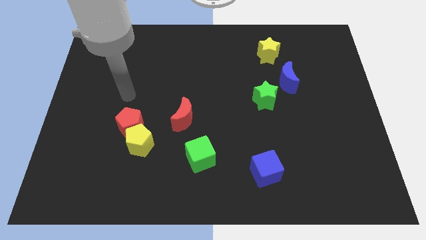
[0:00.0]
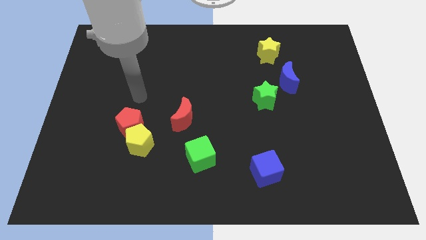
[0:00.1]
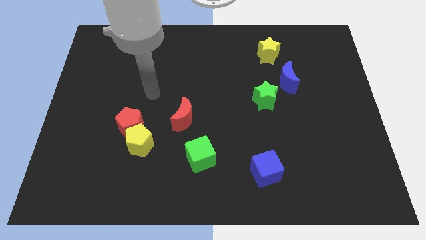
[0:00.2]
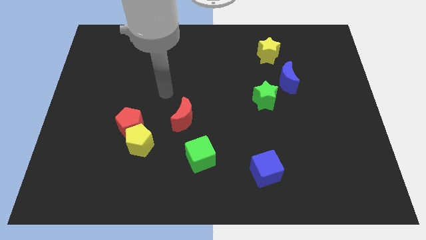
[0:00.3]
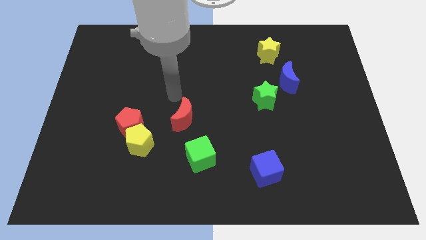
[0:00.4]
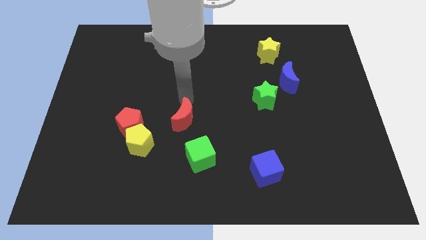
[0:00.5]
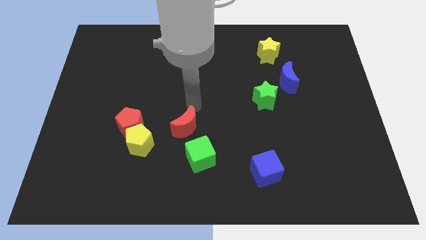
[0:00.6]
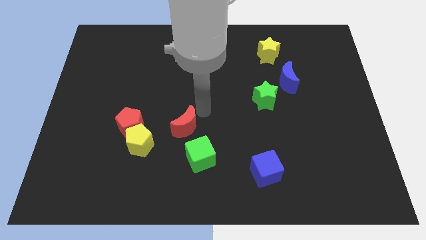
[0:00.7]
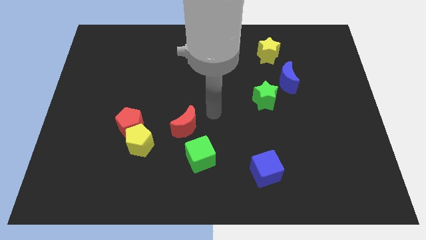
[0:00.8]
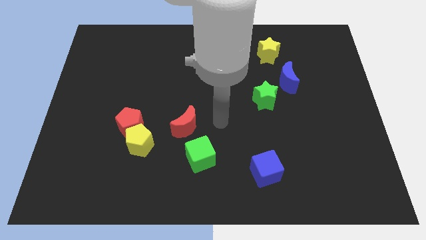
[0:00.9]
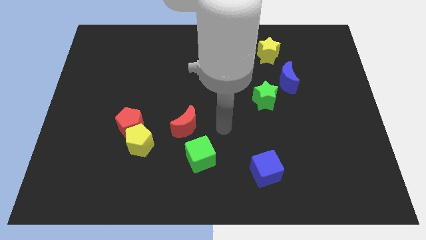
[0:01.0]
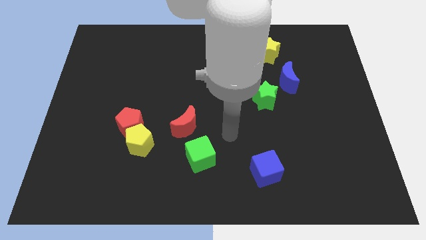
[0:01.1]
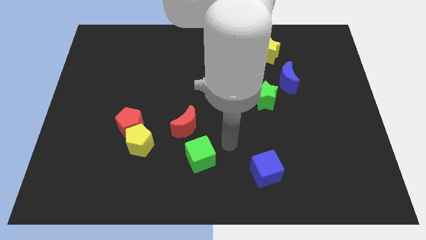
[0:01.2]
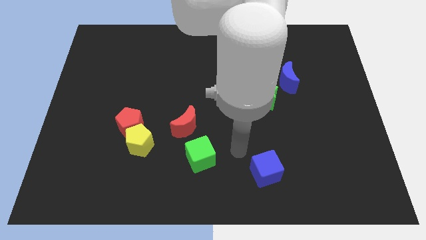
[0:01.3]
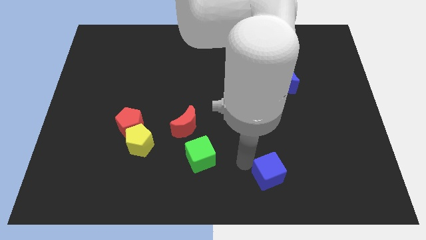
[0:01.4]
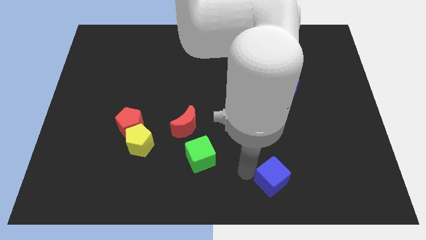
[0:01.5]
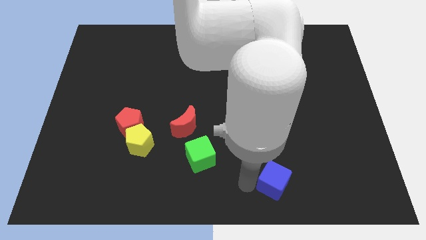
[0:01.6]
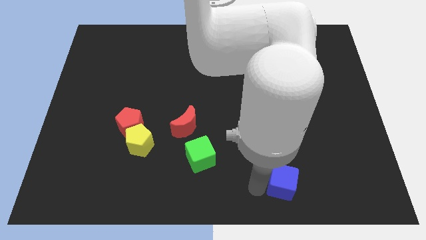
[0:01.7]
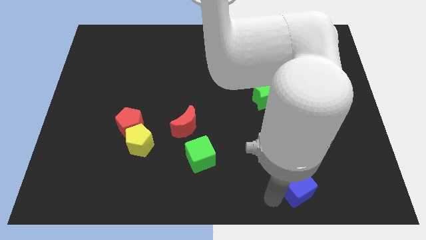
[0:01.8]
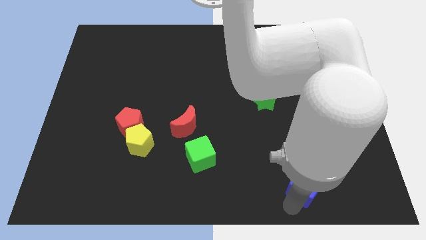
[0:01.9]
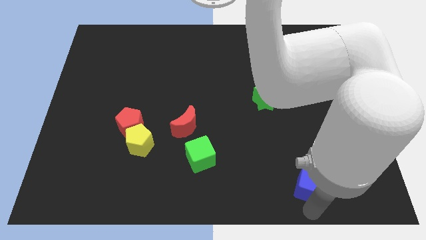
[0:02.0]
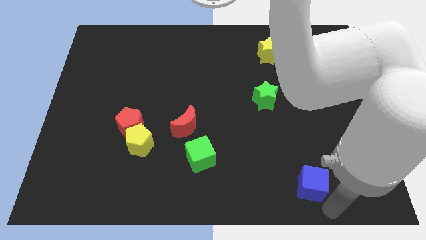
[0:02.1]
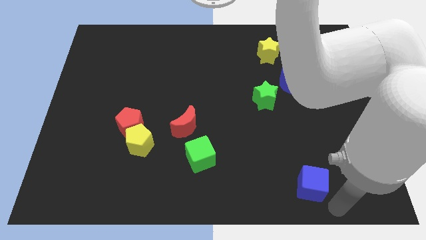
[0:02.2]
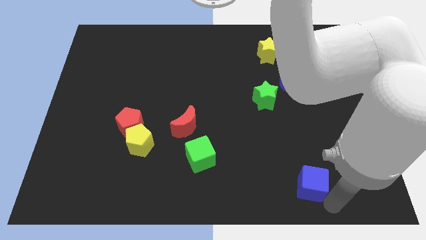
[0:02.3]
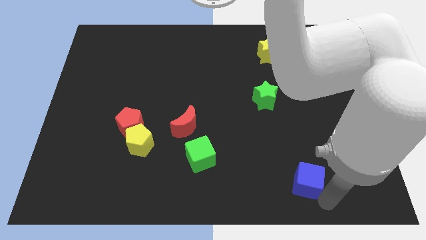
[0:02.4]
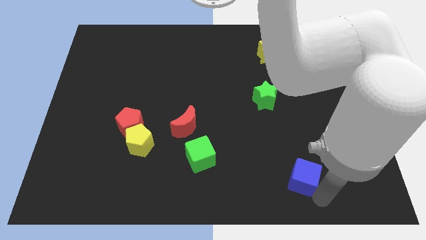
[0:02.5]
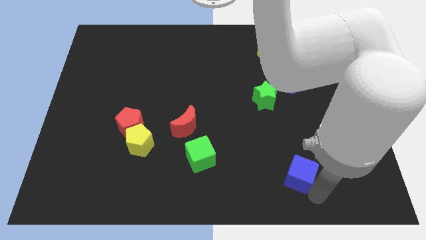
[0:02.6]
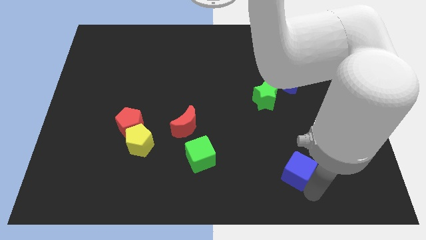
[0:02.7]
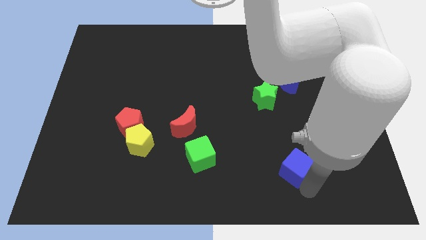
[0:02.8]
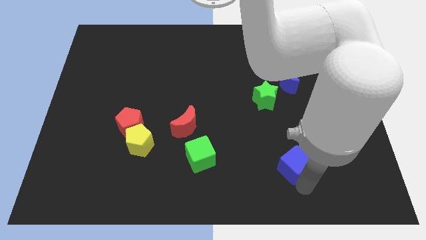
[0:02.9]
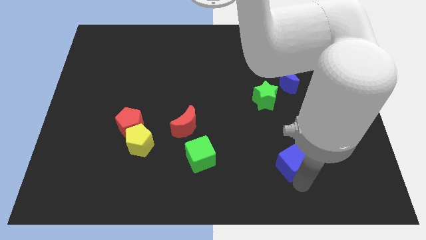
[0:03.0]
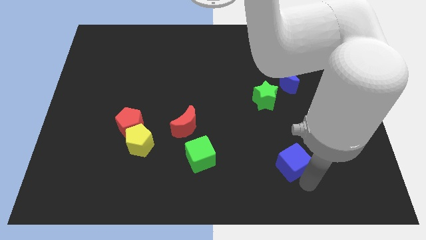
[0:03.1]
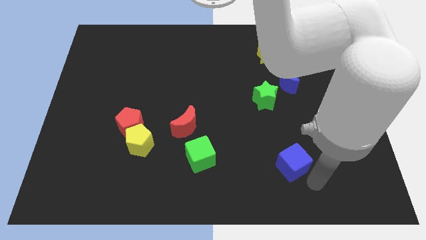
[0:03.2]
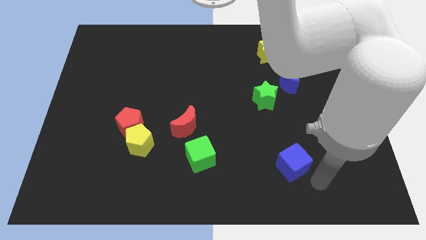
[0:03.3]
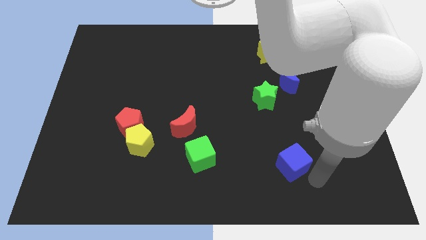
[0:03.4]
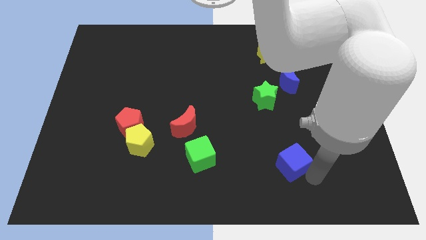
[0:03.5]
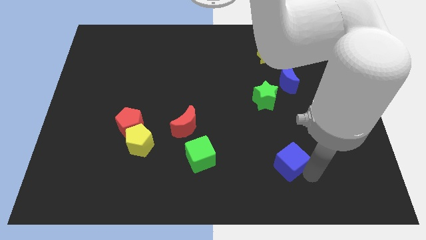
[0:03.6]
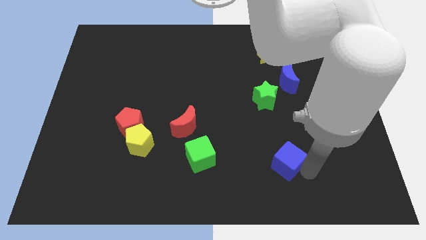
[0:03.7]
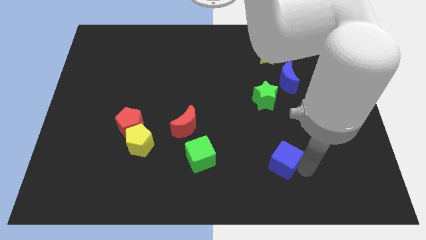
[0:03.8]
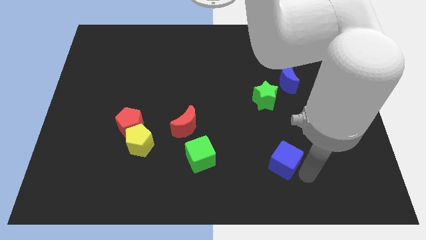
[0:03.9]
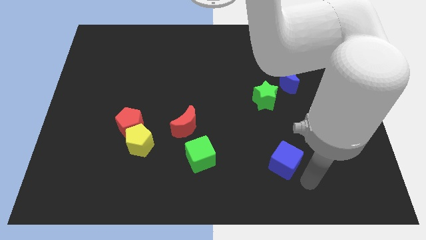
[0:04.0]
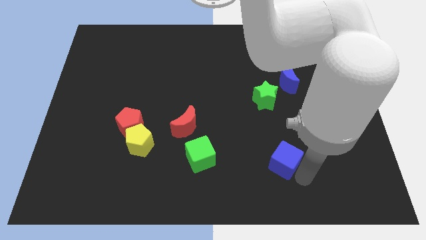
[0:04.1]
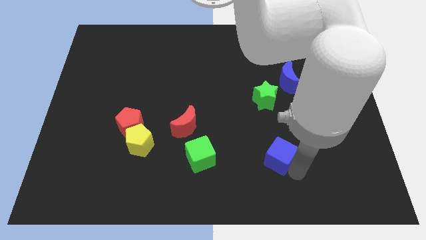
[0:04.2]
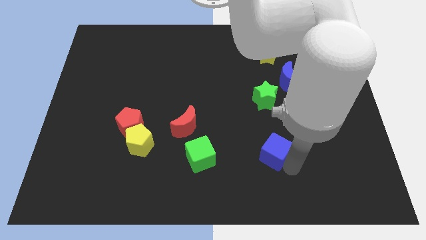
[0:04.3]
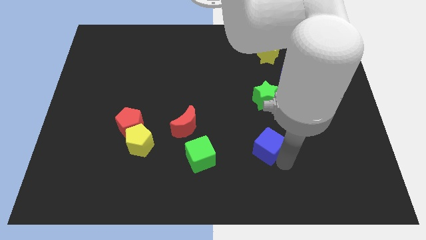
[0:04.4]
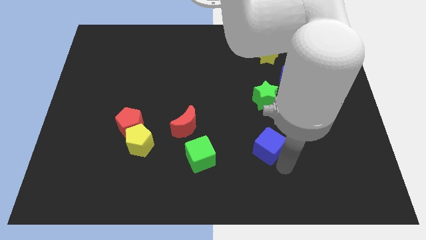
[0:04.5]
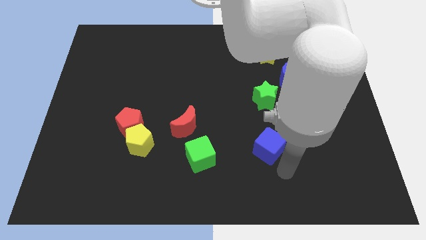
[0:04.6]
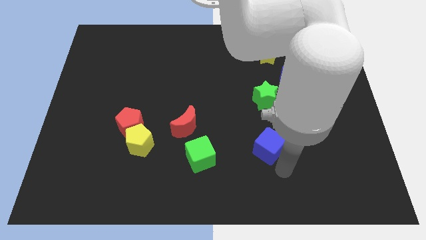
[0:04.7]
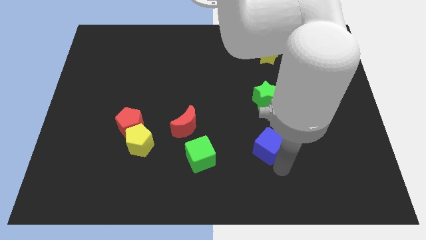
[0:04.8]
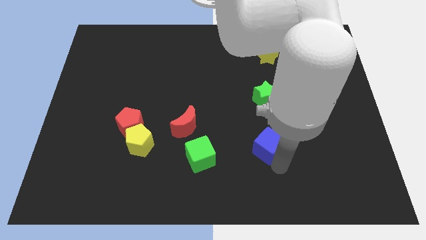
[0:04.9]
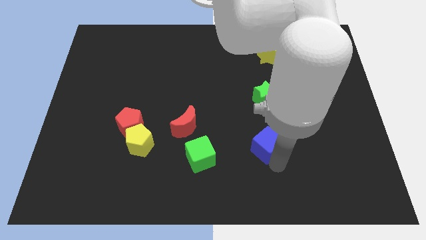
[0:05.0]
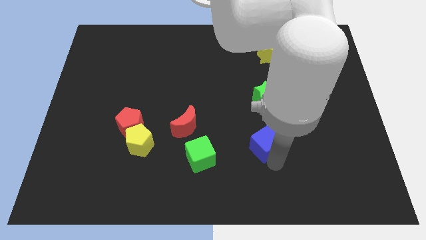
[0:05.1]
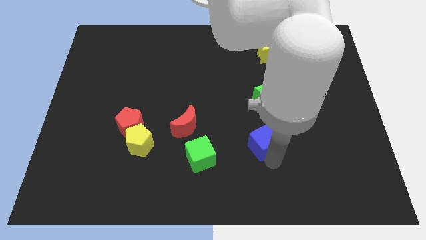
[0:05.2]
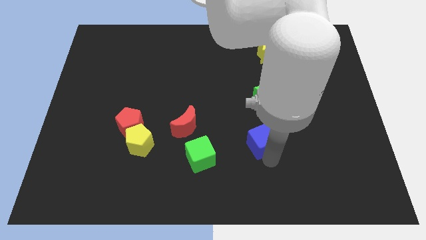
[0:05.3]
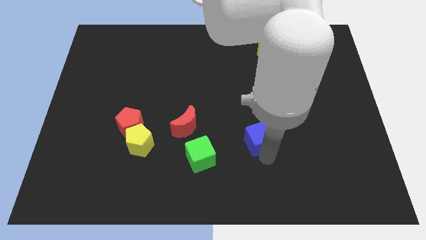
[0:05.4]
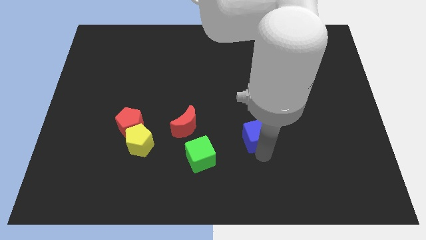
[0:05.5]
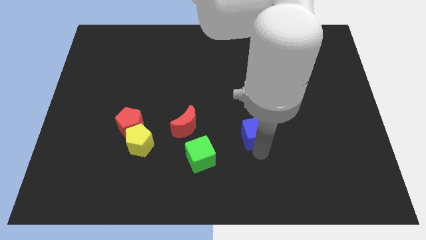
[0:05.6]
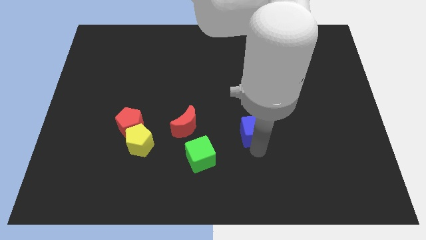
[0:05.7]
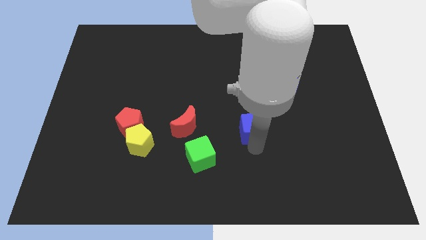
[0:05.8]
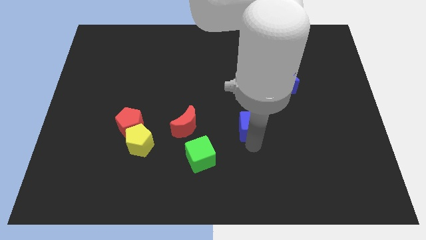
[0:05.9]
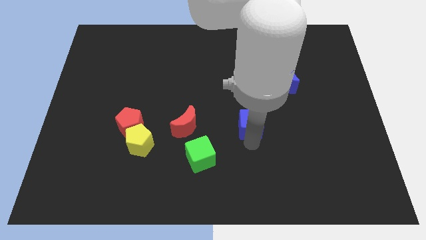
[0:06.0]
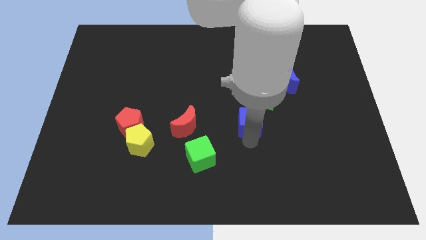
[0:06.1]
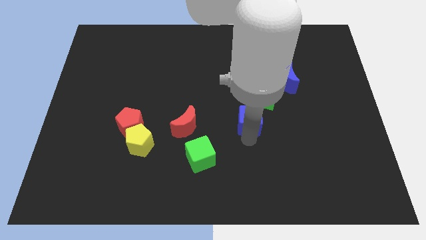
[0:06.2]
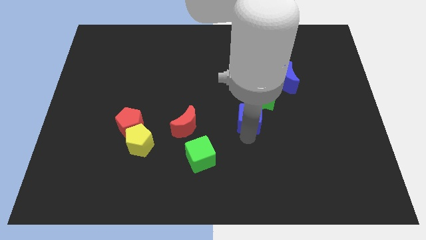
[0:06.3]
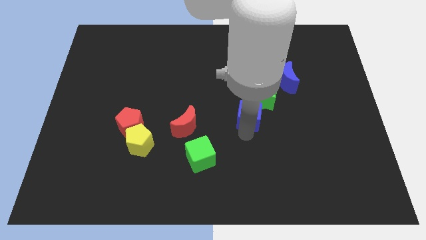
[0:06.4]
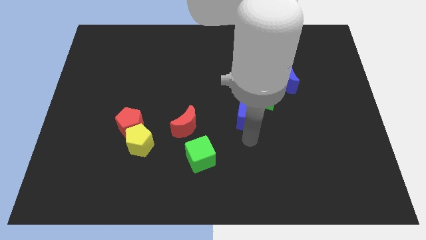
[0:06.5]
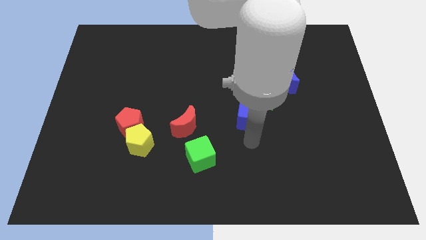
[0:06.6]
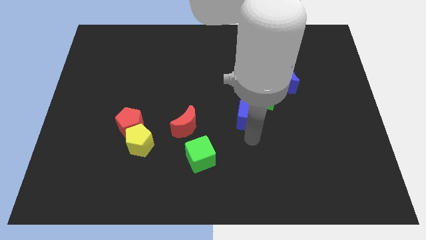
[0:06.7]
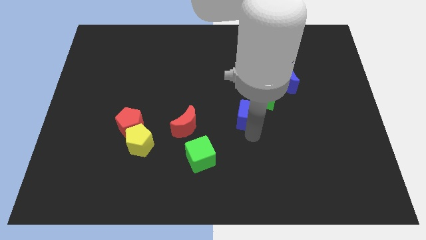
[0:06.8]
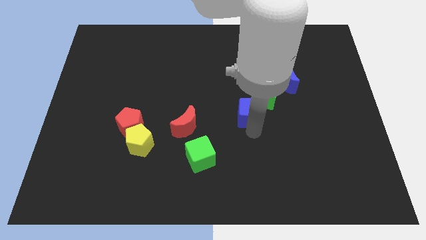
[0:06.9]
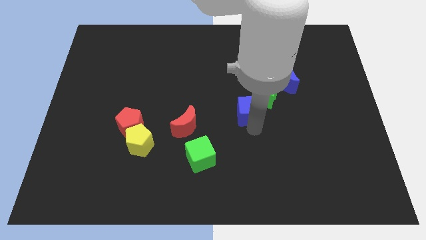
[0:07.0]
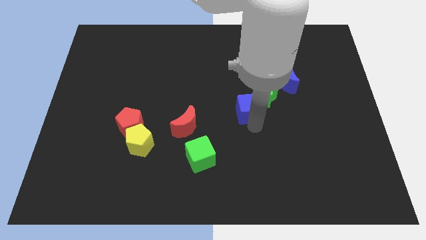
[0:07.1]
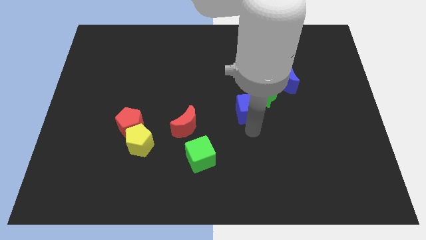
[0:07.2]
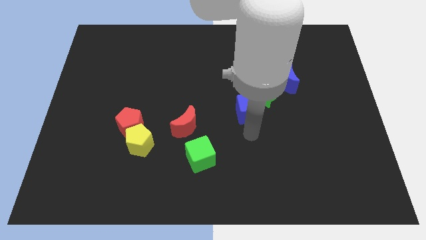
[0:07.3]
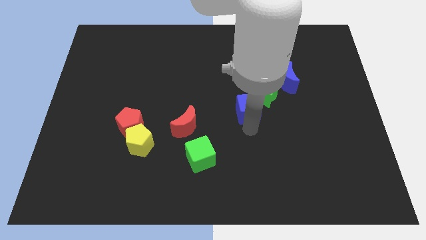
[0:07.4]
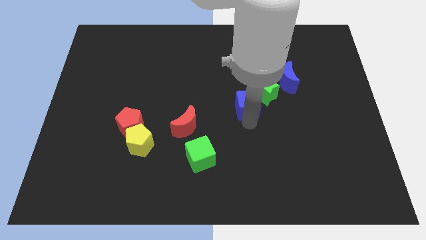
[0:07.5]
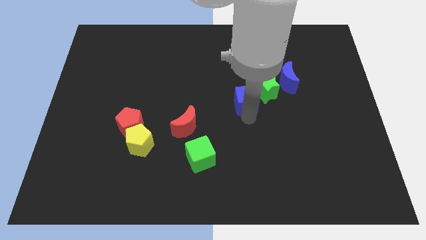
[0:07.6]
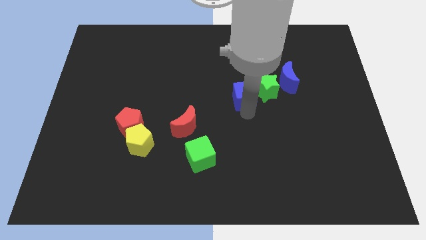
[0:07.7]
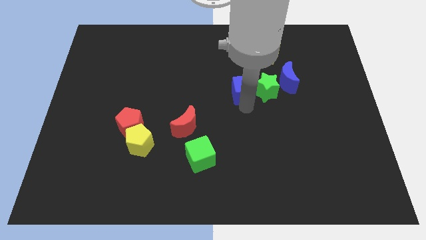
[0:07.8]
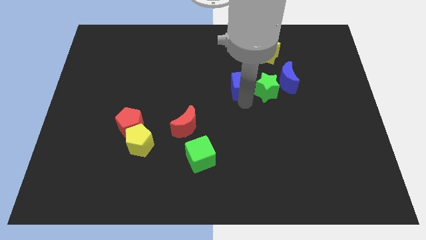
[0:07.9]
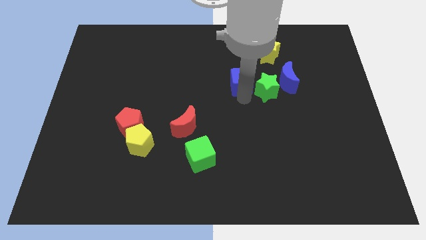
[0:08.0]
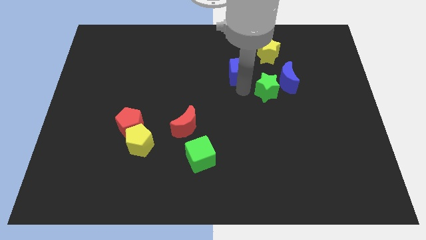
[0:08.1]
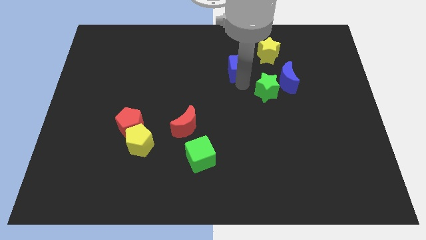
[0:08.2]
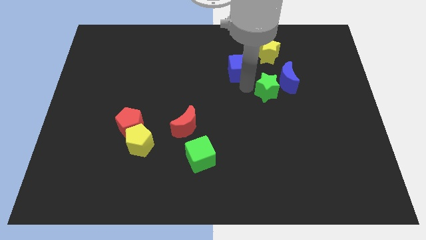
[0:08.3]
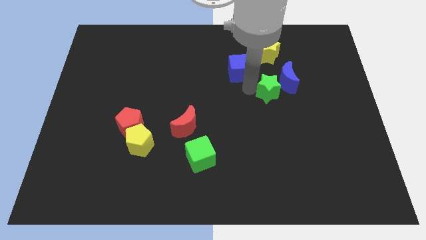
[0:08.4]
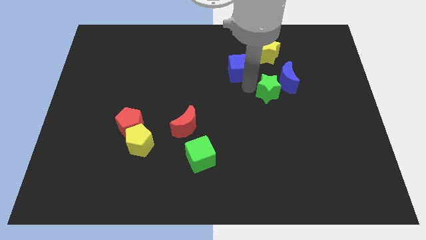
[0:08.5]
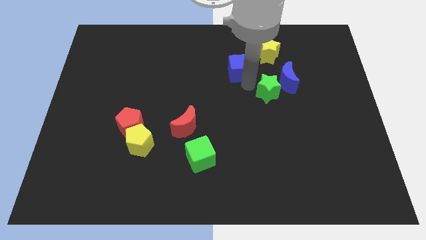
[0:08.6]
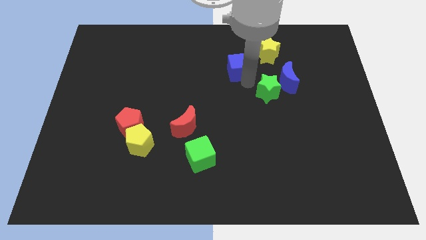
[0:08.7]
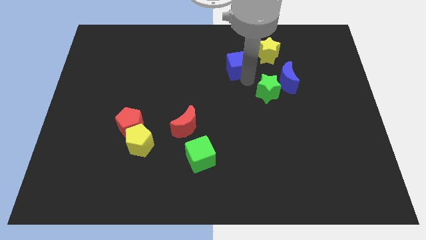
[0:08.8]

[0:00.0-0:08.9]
move the blue cube left of the yellow star
